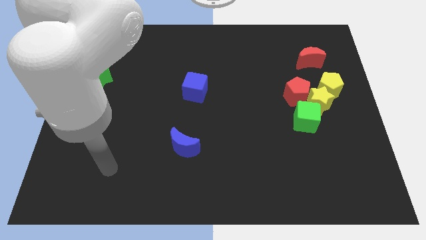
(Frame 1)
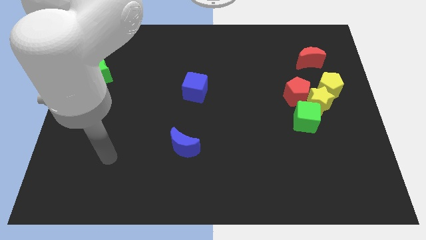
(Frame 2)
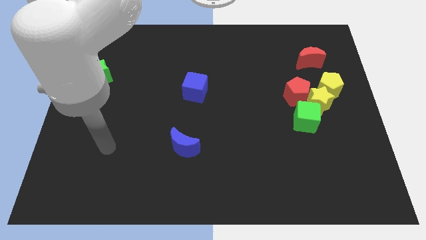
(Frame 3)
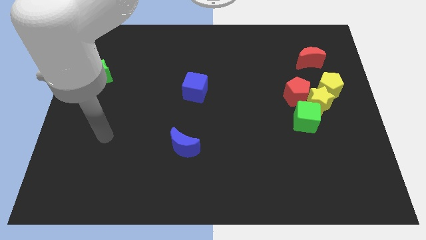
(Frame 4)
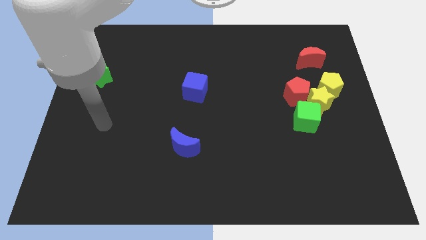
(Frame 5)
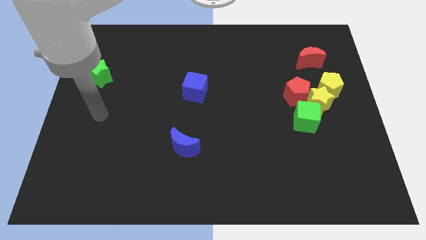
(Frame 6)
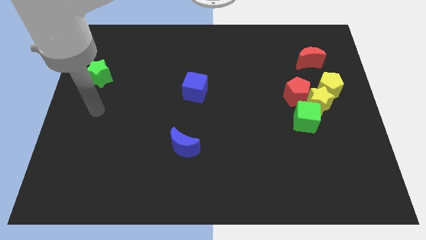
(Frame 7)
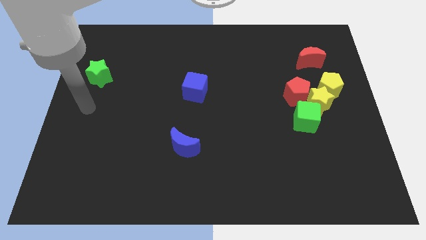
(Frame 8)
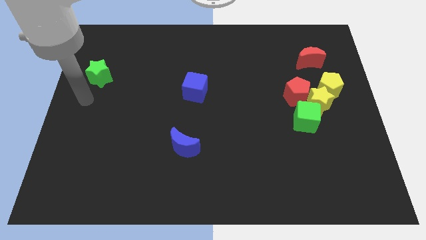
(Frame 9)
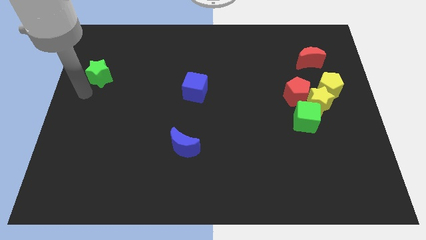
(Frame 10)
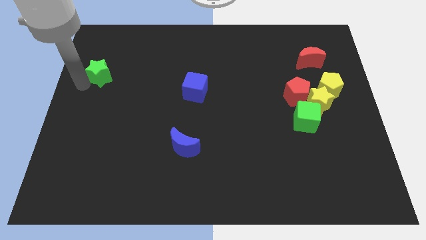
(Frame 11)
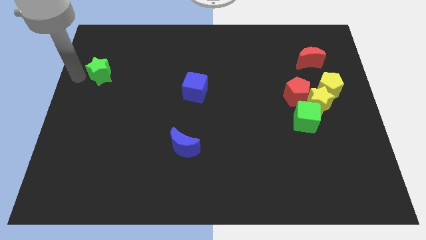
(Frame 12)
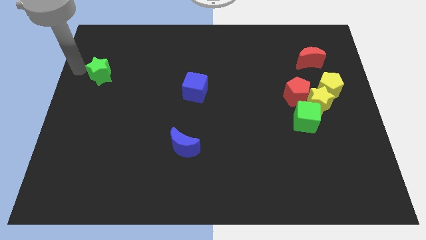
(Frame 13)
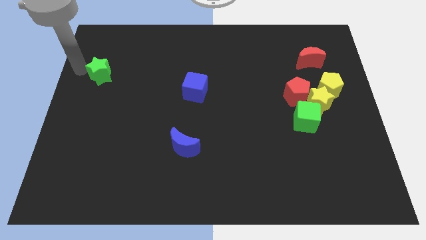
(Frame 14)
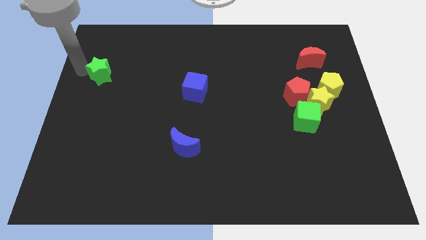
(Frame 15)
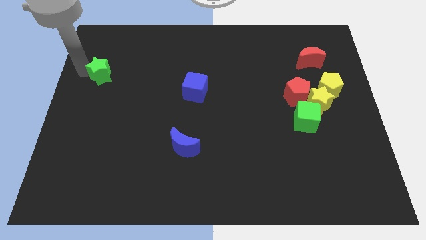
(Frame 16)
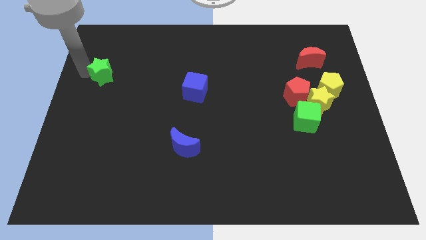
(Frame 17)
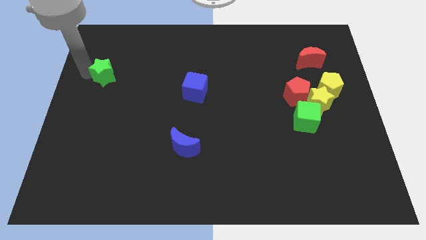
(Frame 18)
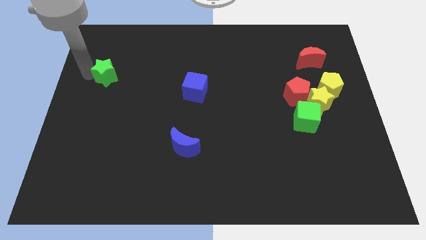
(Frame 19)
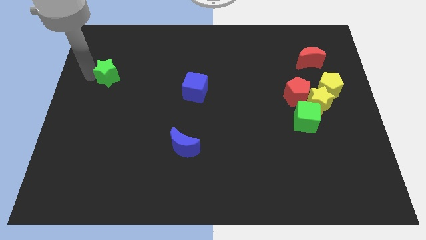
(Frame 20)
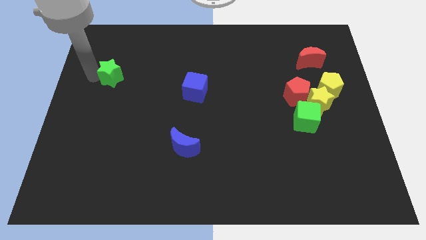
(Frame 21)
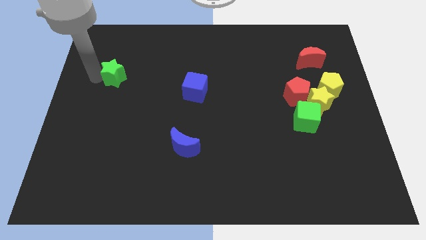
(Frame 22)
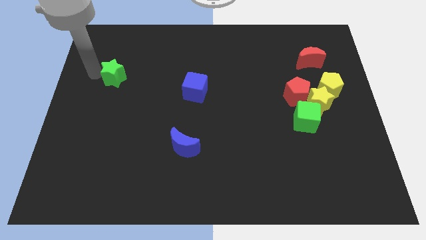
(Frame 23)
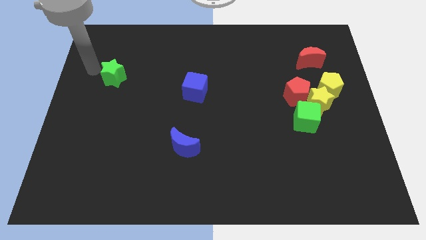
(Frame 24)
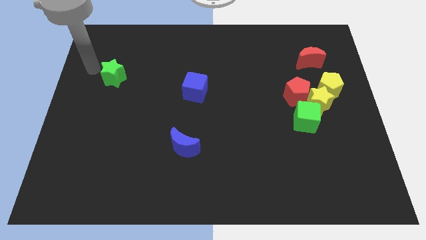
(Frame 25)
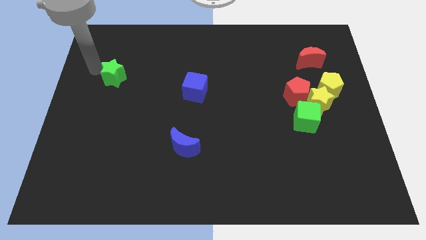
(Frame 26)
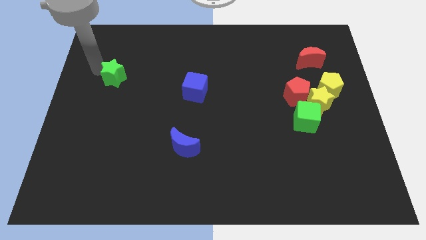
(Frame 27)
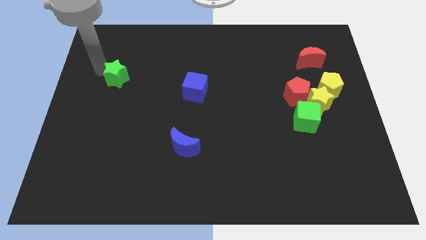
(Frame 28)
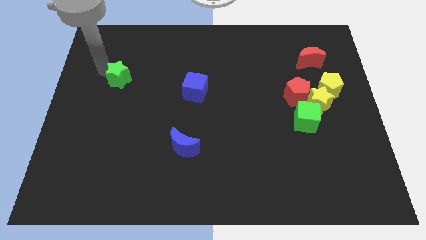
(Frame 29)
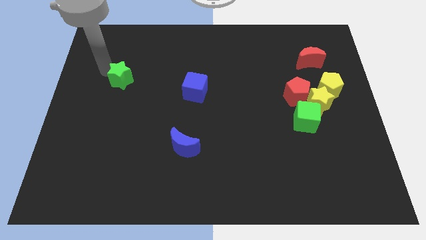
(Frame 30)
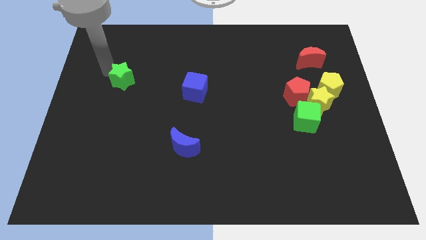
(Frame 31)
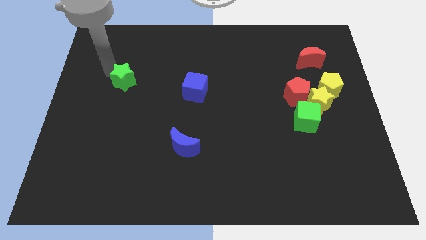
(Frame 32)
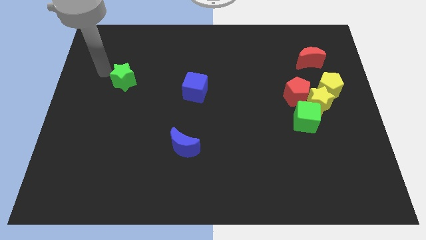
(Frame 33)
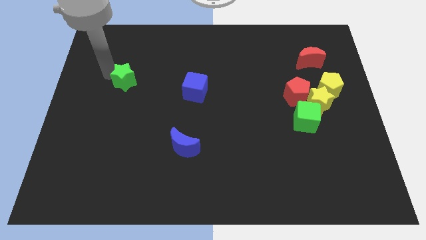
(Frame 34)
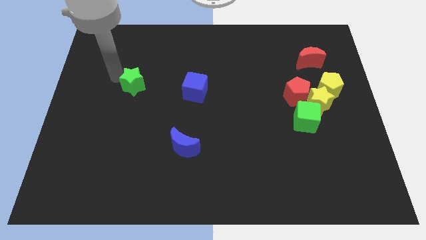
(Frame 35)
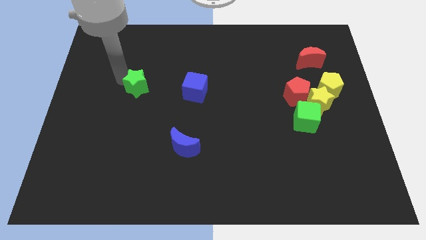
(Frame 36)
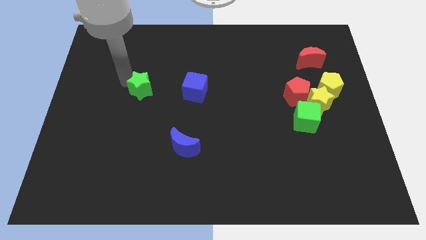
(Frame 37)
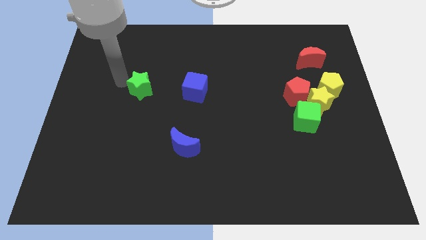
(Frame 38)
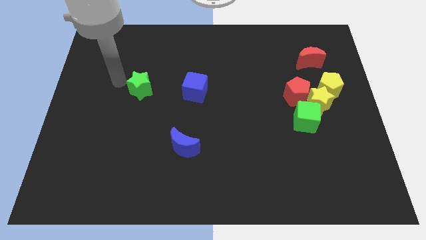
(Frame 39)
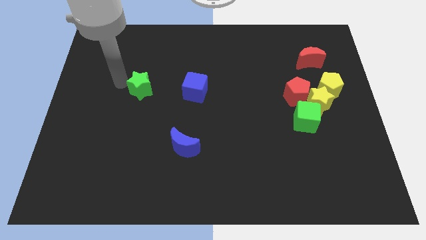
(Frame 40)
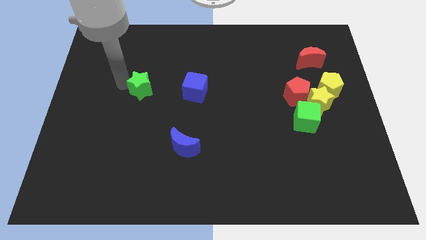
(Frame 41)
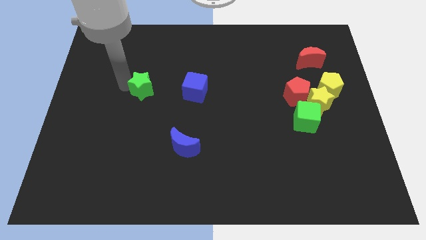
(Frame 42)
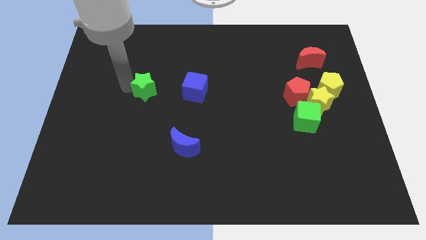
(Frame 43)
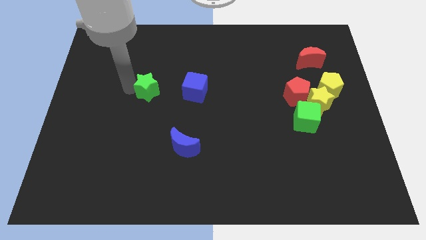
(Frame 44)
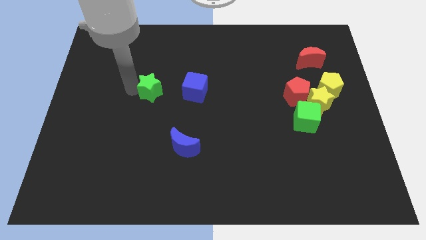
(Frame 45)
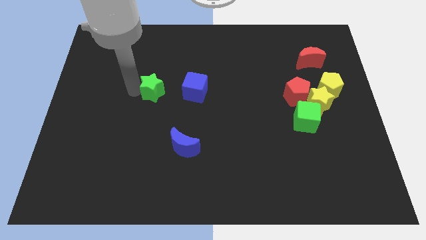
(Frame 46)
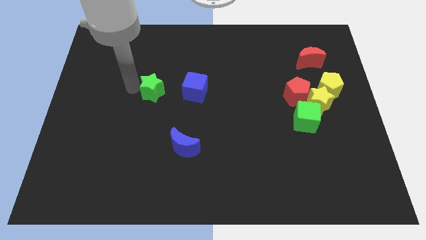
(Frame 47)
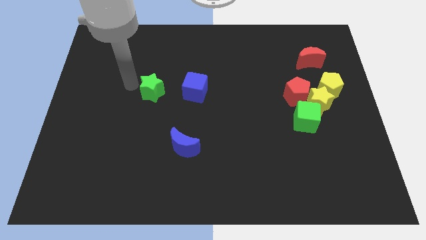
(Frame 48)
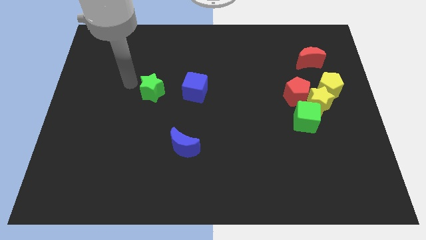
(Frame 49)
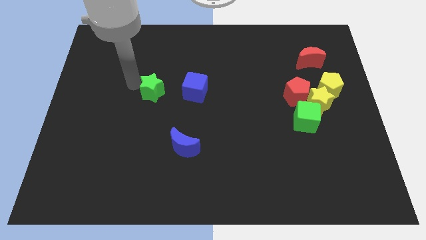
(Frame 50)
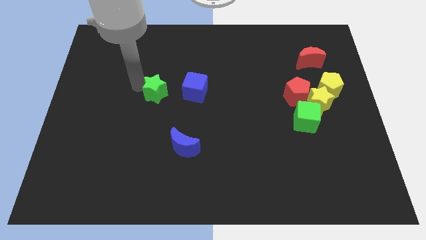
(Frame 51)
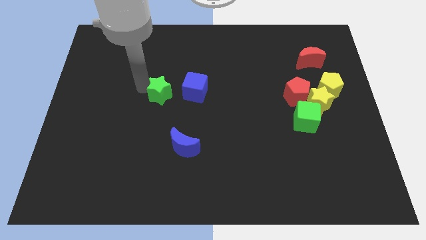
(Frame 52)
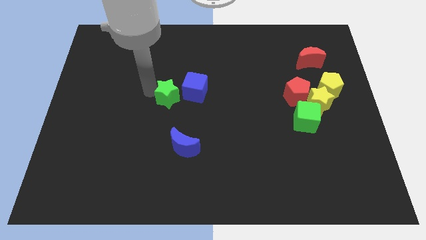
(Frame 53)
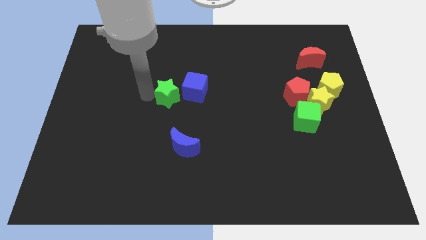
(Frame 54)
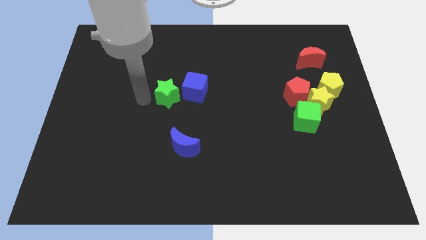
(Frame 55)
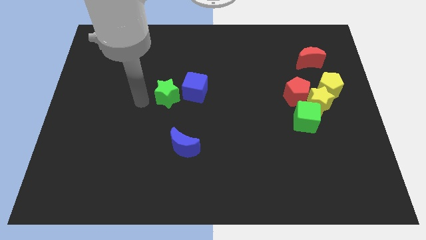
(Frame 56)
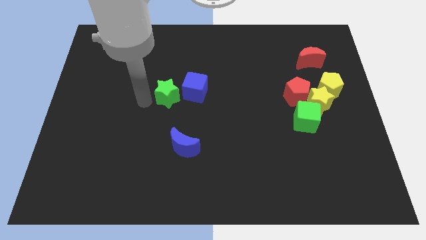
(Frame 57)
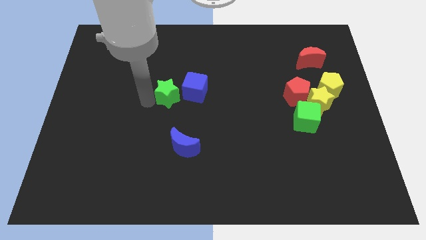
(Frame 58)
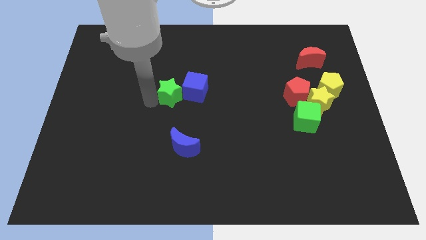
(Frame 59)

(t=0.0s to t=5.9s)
put the green star close to the blue cube

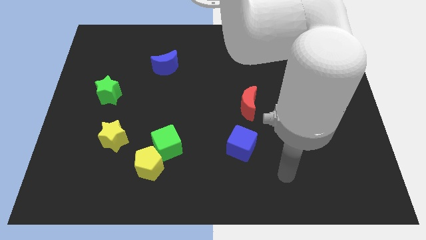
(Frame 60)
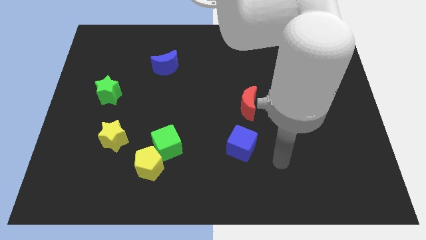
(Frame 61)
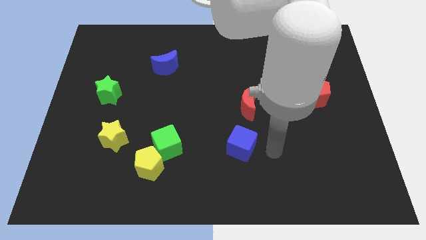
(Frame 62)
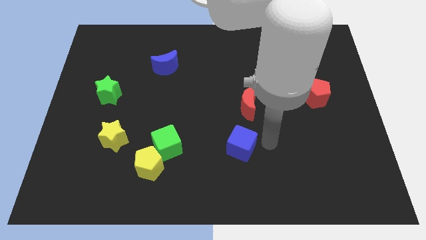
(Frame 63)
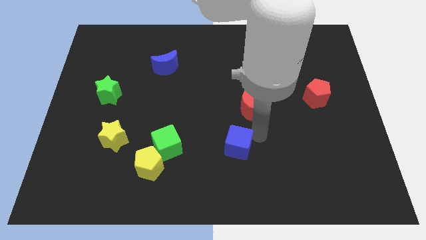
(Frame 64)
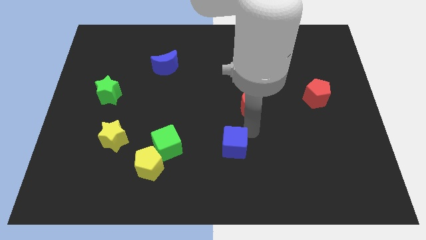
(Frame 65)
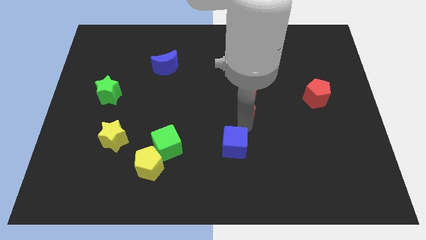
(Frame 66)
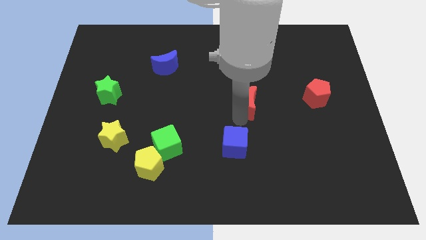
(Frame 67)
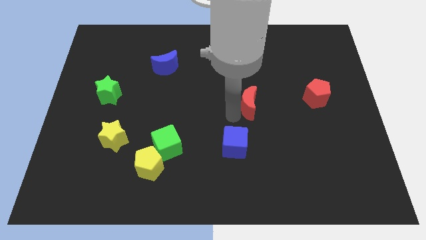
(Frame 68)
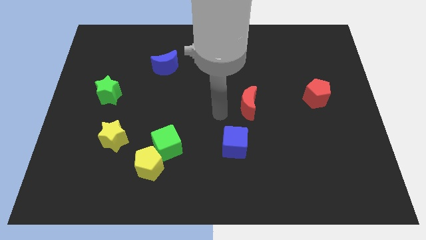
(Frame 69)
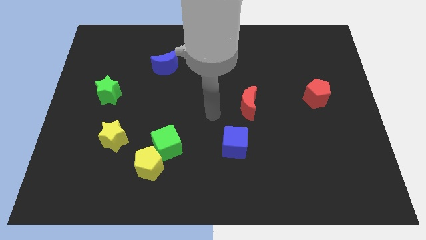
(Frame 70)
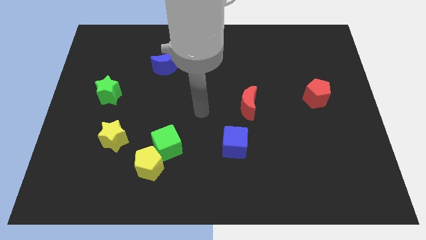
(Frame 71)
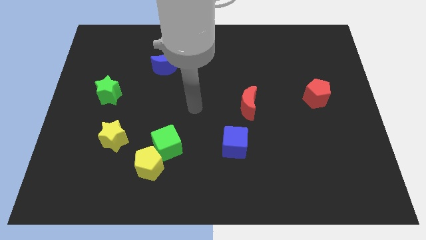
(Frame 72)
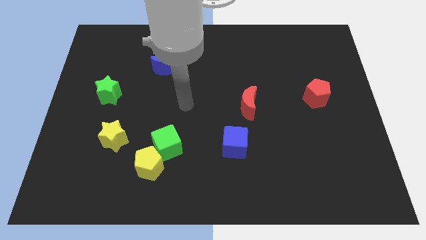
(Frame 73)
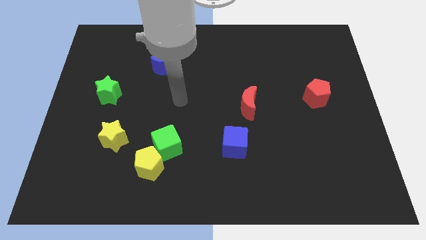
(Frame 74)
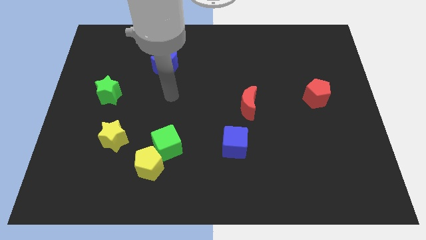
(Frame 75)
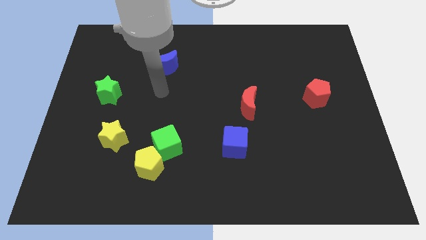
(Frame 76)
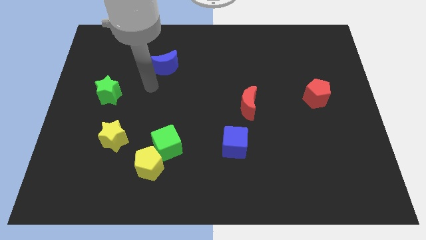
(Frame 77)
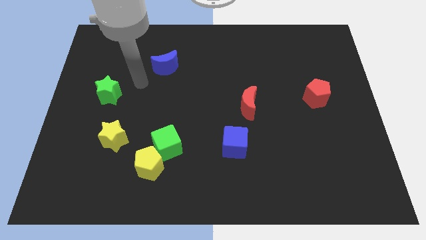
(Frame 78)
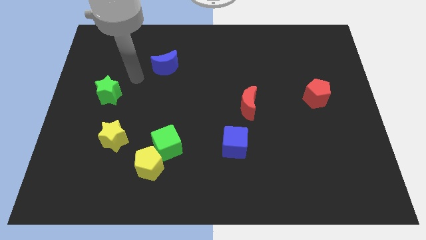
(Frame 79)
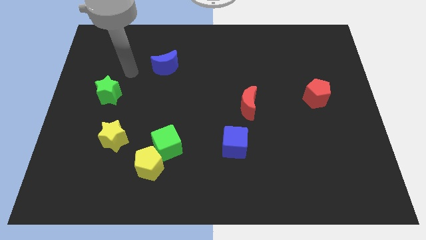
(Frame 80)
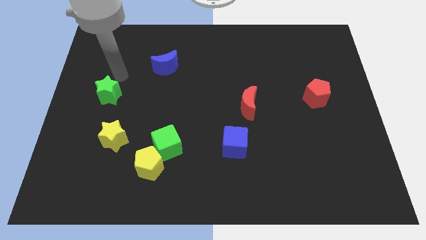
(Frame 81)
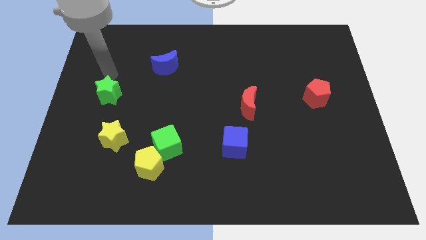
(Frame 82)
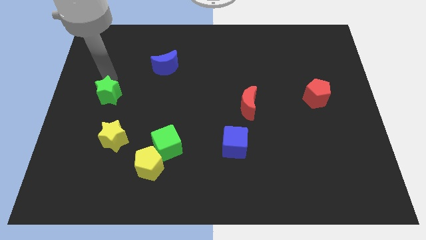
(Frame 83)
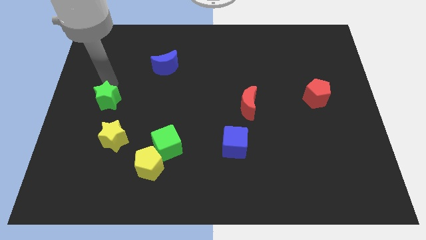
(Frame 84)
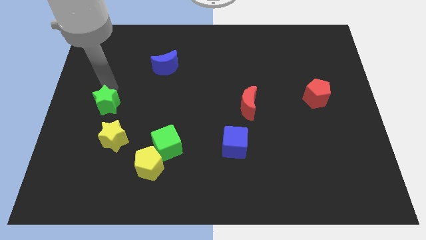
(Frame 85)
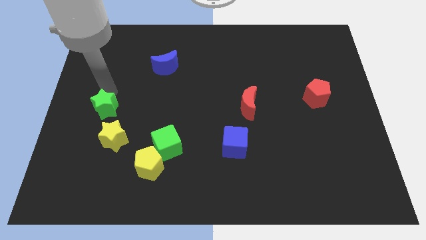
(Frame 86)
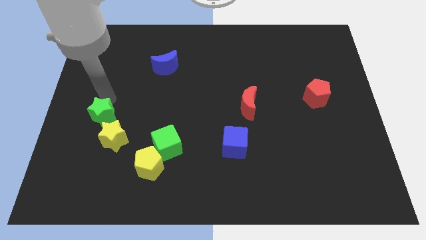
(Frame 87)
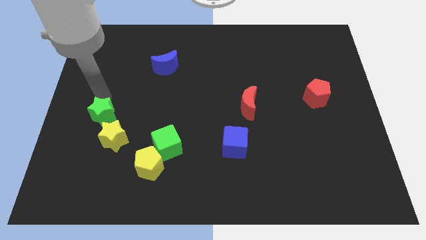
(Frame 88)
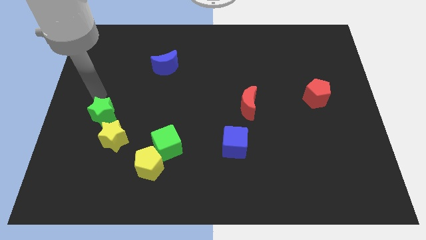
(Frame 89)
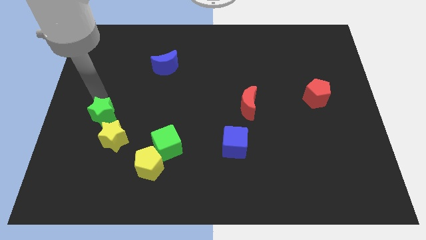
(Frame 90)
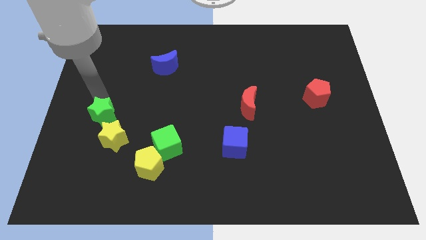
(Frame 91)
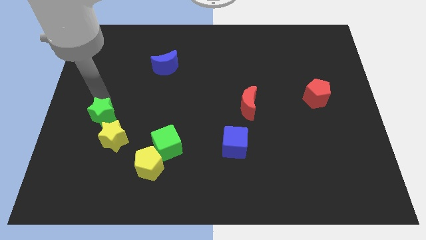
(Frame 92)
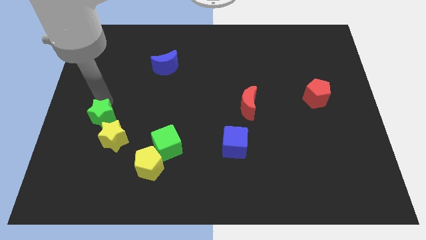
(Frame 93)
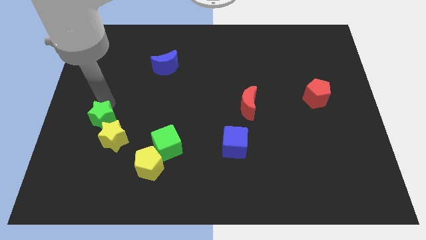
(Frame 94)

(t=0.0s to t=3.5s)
move the green star towards the yellow star
